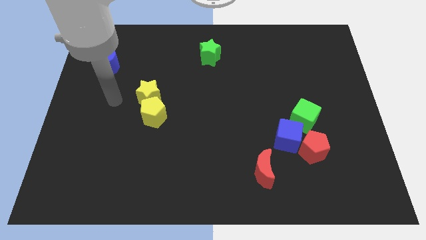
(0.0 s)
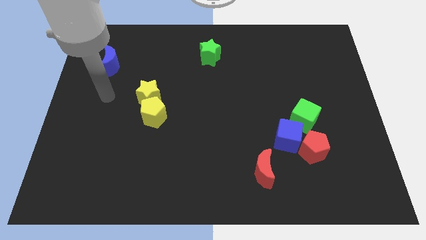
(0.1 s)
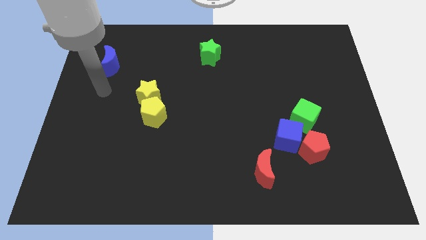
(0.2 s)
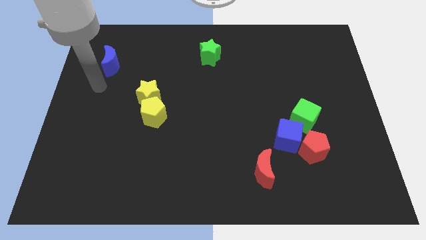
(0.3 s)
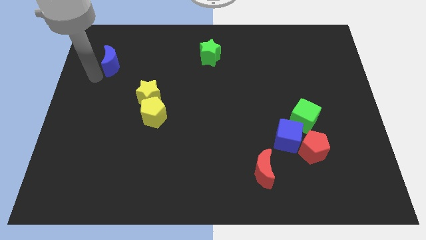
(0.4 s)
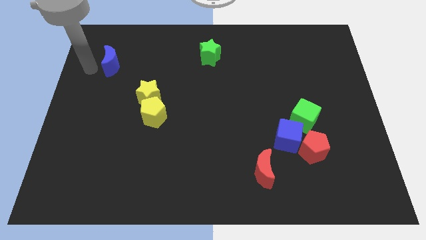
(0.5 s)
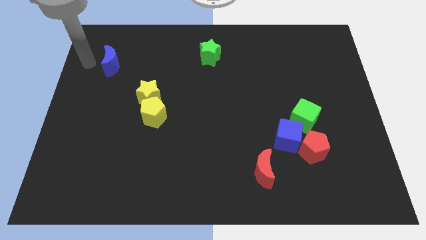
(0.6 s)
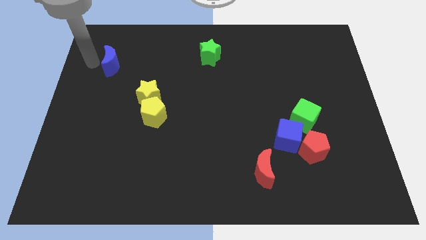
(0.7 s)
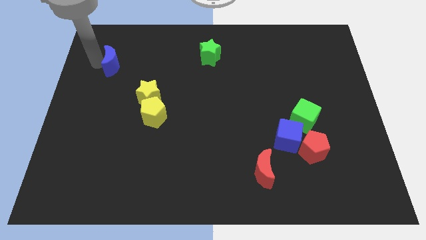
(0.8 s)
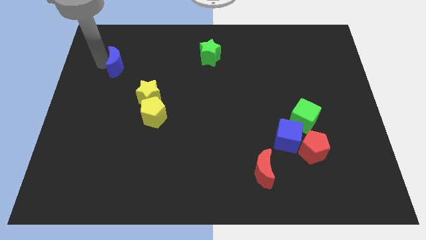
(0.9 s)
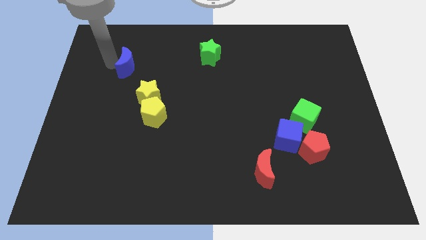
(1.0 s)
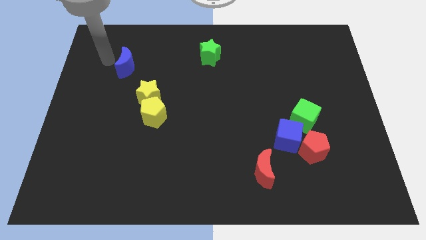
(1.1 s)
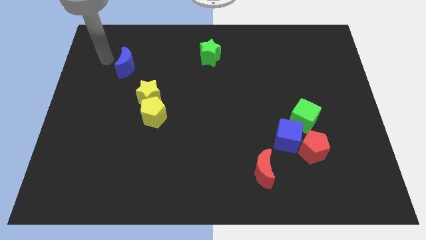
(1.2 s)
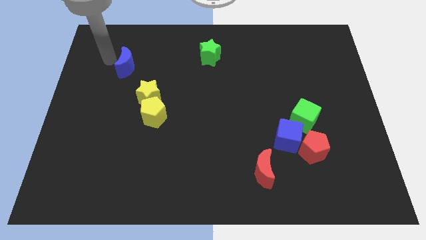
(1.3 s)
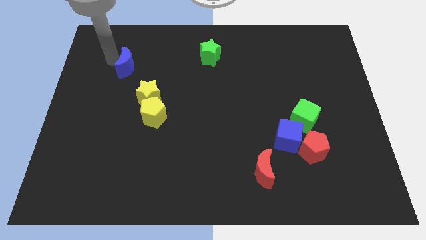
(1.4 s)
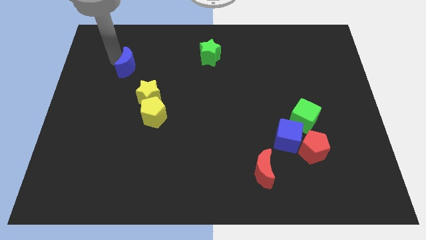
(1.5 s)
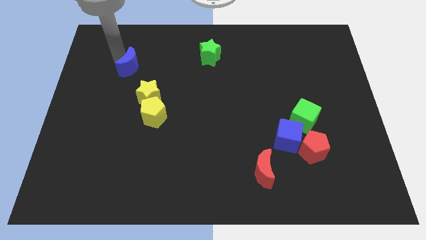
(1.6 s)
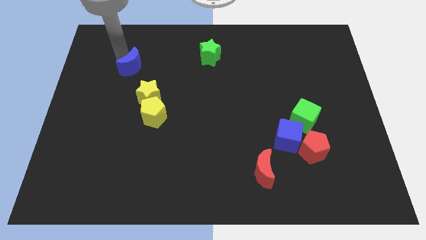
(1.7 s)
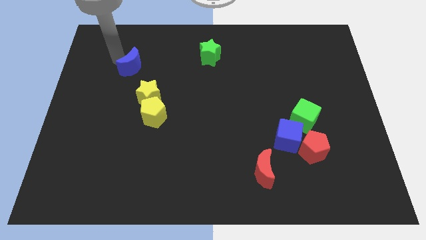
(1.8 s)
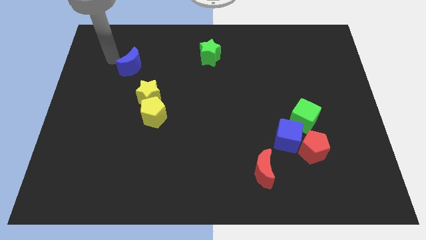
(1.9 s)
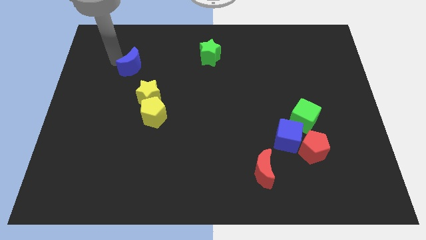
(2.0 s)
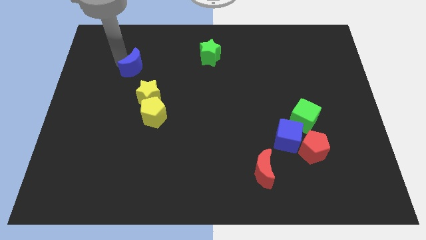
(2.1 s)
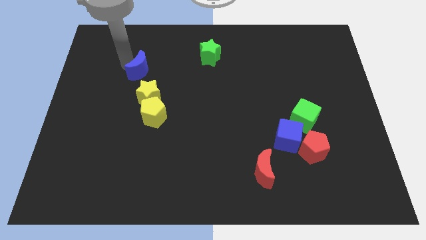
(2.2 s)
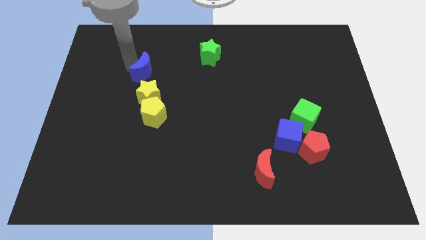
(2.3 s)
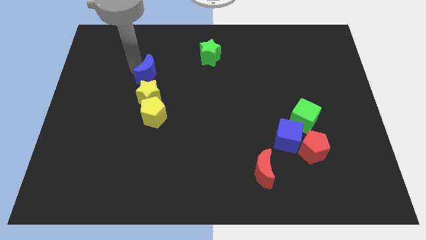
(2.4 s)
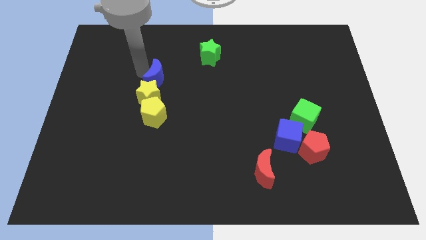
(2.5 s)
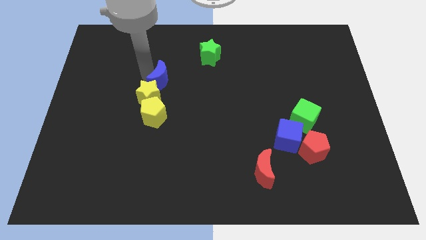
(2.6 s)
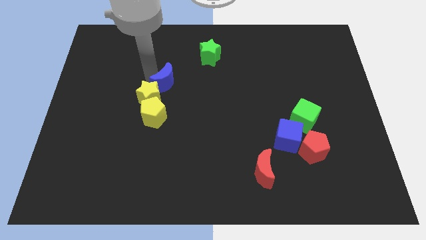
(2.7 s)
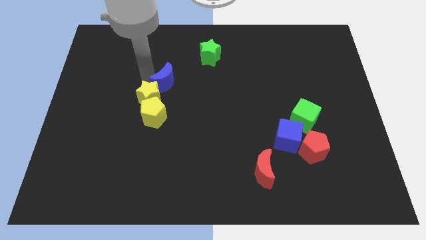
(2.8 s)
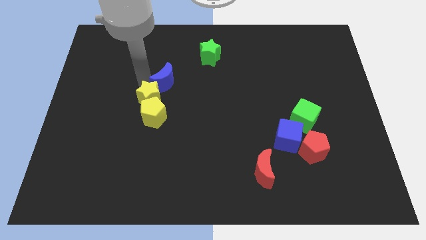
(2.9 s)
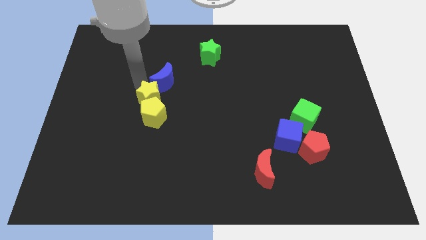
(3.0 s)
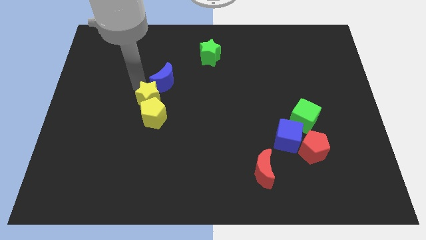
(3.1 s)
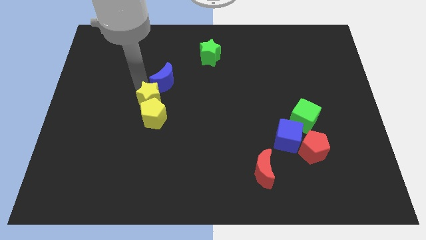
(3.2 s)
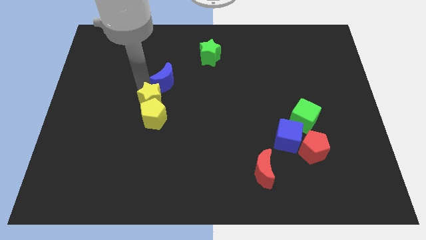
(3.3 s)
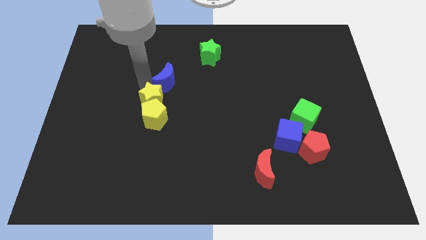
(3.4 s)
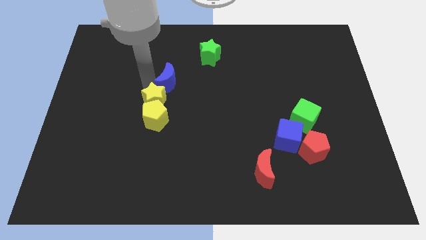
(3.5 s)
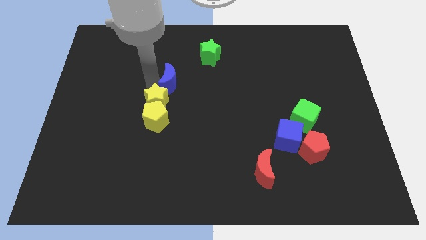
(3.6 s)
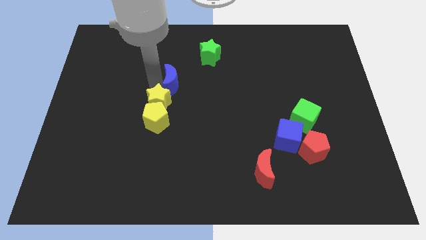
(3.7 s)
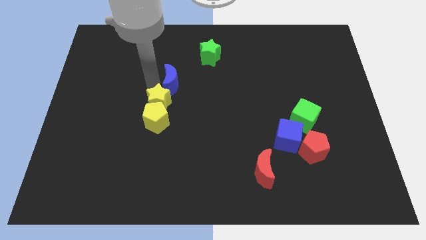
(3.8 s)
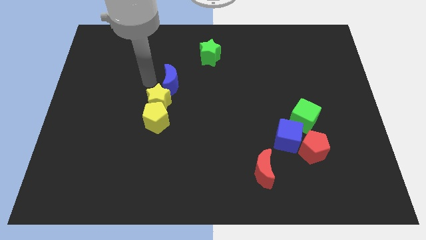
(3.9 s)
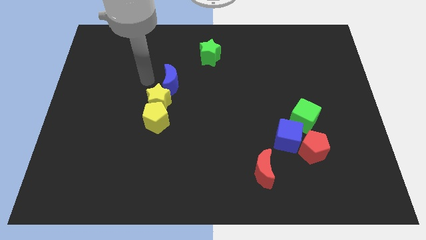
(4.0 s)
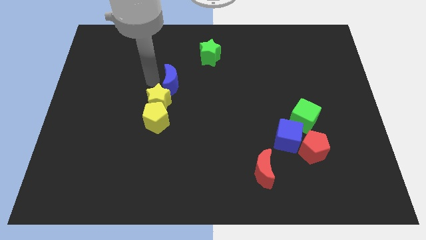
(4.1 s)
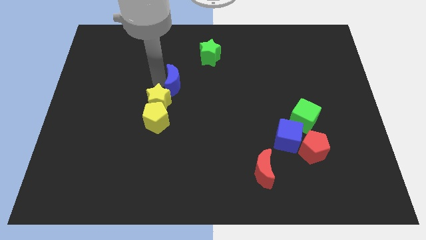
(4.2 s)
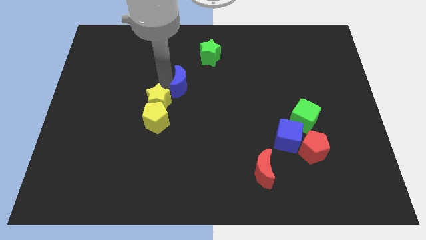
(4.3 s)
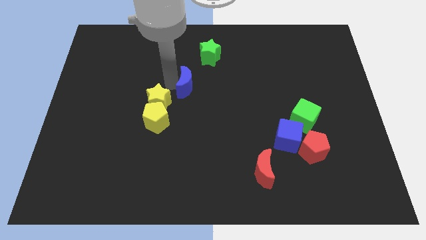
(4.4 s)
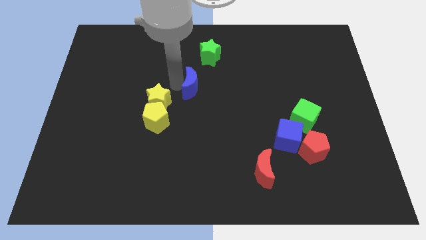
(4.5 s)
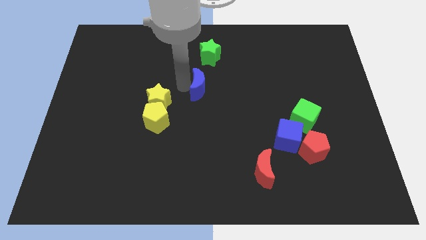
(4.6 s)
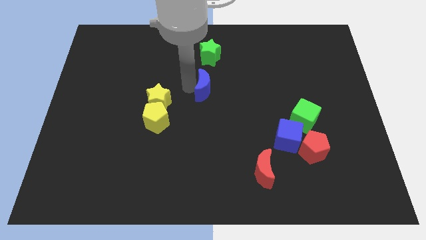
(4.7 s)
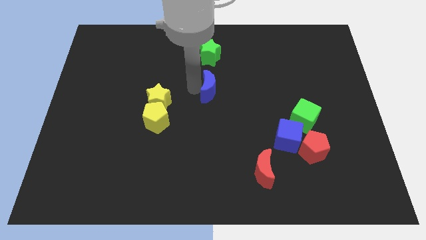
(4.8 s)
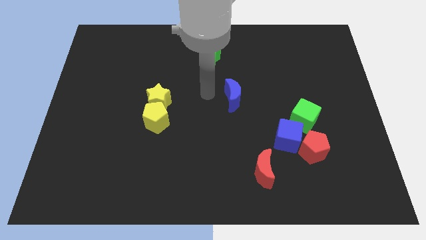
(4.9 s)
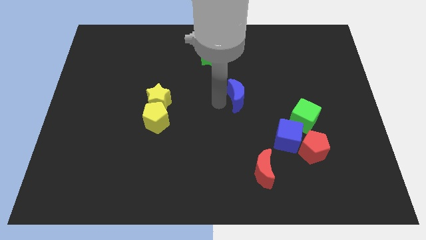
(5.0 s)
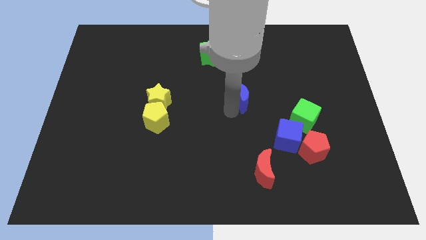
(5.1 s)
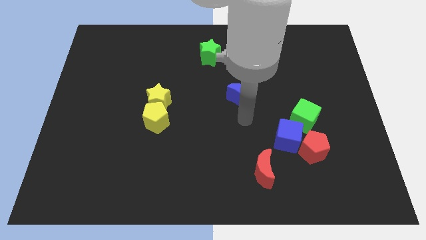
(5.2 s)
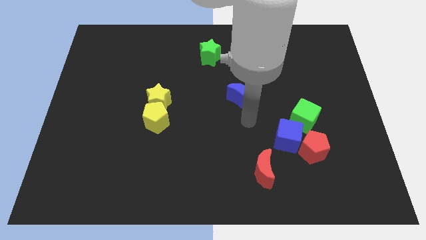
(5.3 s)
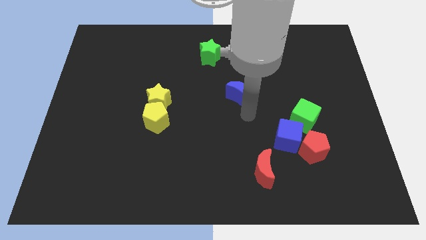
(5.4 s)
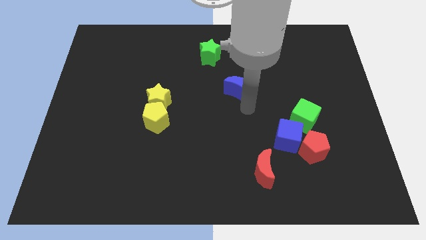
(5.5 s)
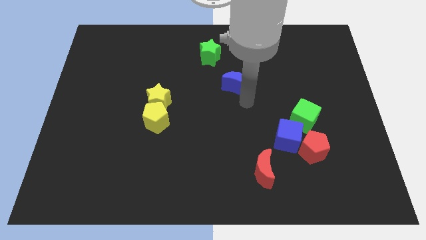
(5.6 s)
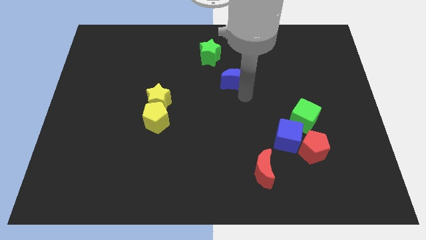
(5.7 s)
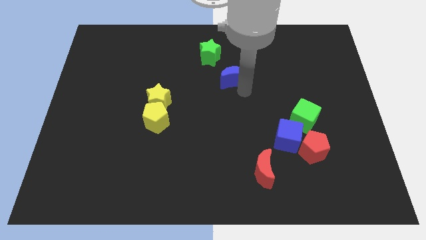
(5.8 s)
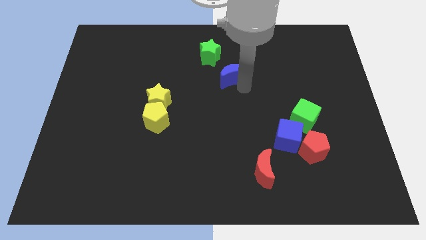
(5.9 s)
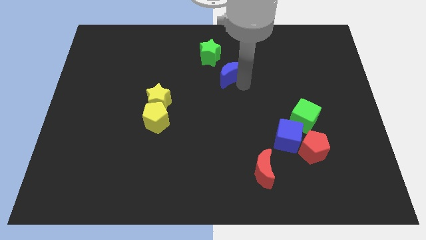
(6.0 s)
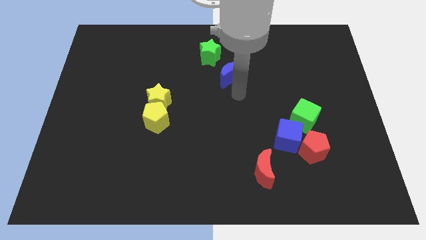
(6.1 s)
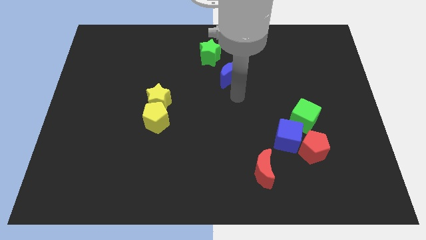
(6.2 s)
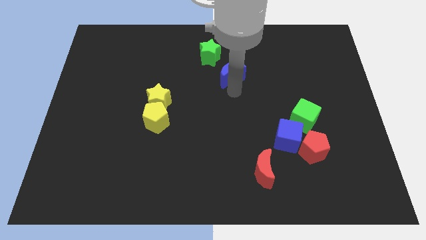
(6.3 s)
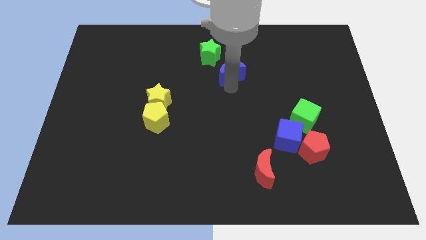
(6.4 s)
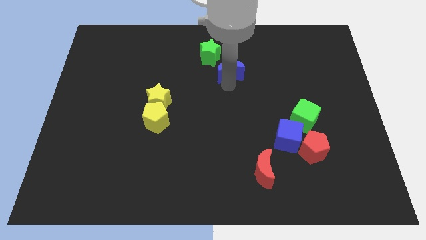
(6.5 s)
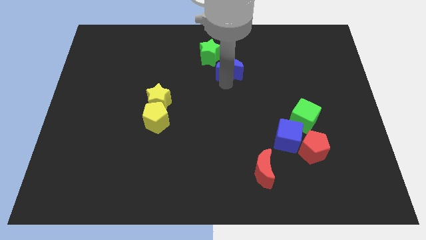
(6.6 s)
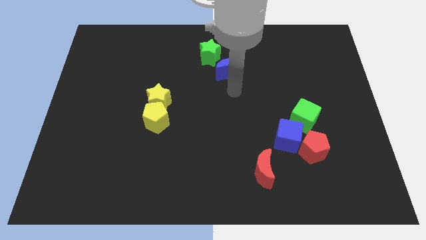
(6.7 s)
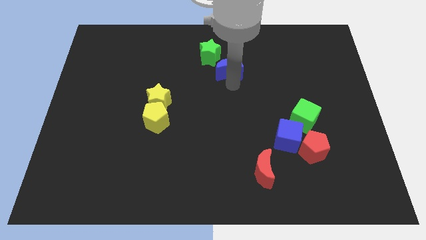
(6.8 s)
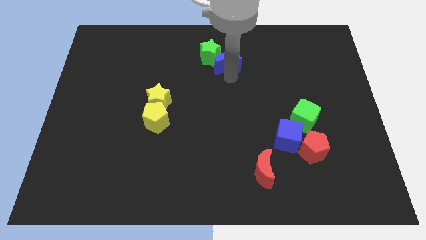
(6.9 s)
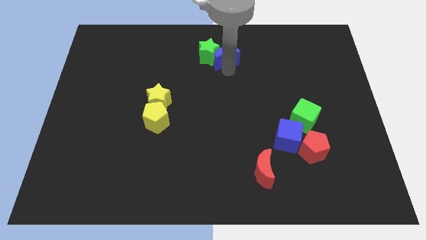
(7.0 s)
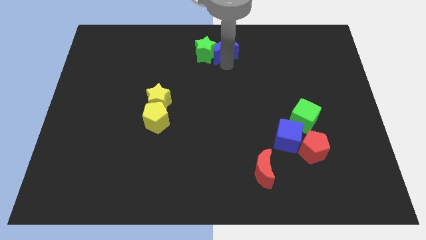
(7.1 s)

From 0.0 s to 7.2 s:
push the blue moon to the top side

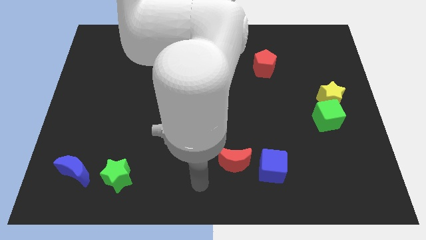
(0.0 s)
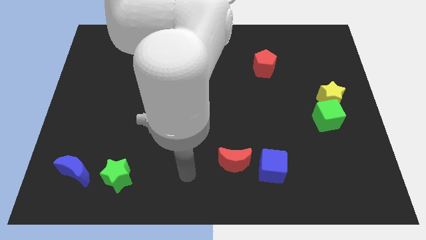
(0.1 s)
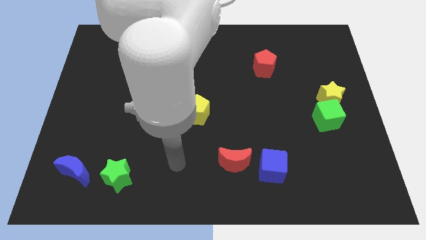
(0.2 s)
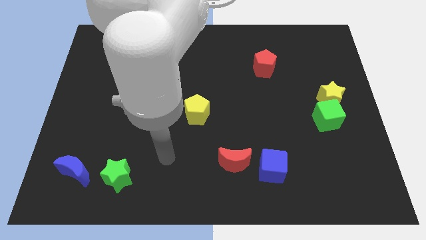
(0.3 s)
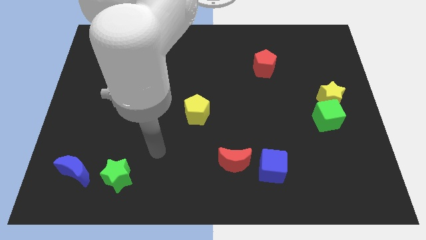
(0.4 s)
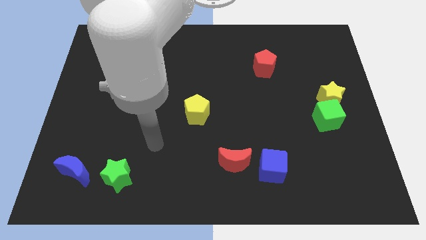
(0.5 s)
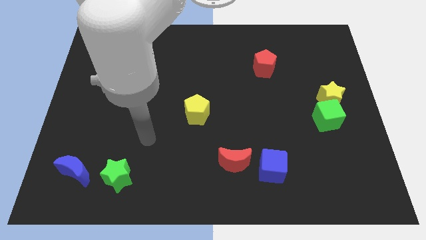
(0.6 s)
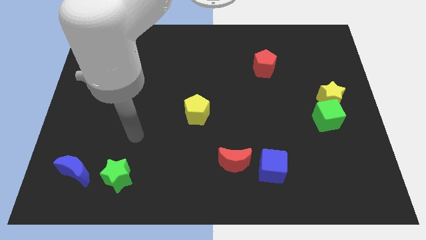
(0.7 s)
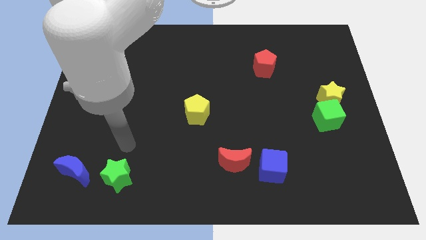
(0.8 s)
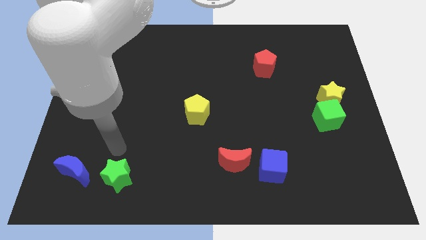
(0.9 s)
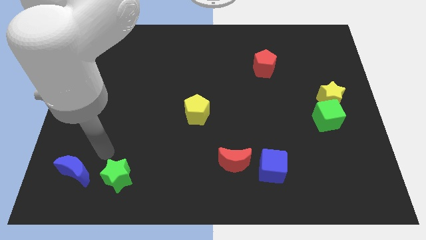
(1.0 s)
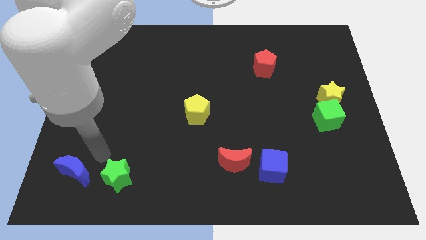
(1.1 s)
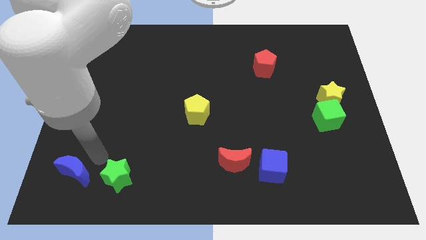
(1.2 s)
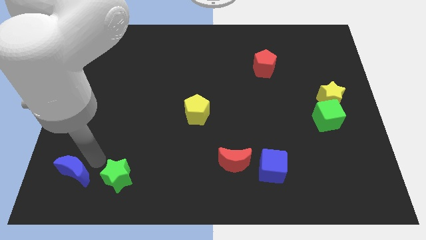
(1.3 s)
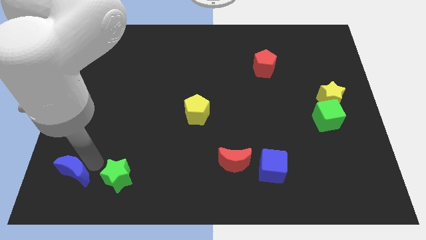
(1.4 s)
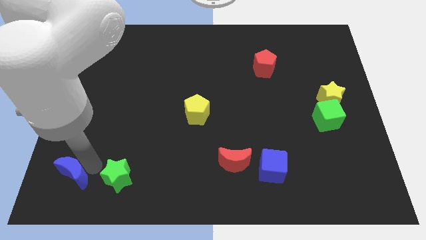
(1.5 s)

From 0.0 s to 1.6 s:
slide the blue moon to the bottom left
